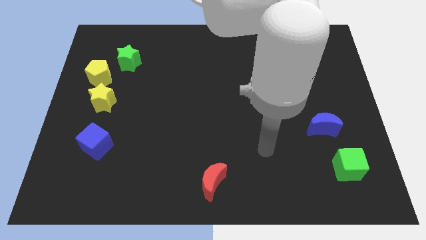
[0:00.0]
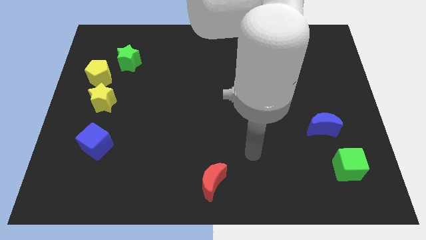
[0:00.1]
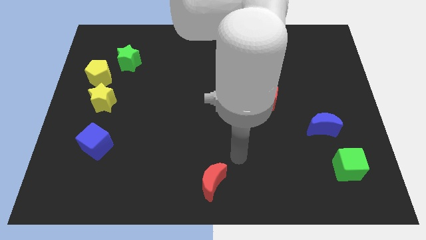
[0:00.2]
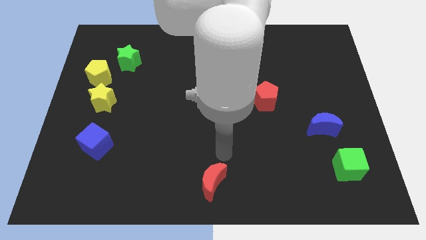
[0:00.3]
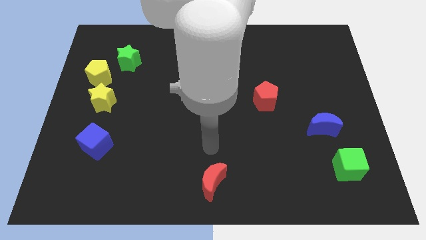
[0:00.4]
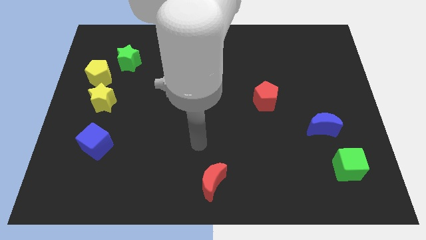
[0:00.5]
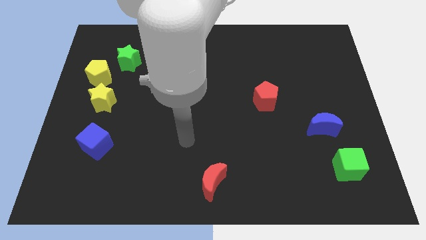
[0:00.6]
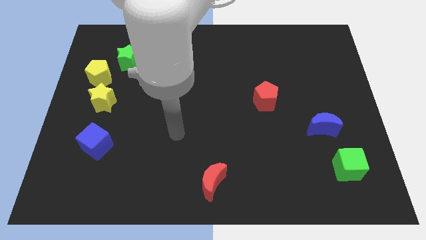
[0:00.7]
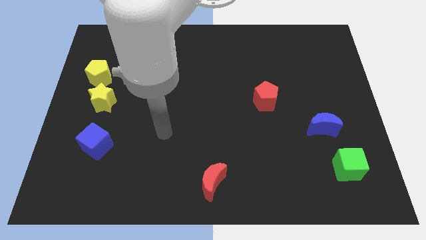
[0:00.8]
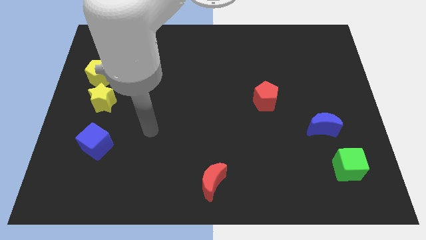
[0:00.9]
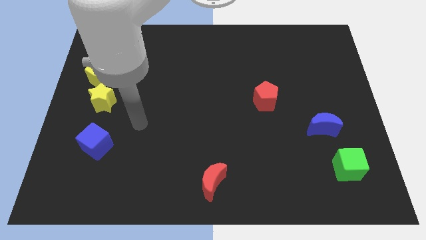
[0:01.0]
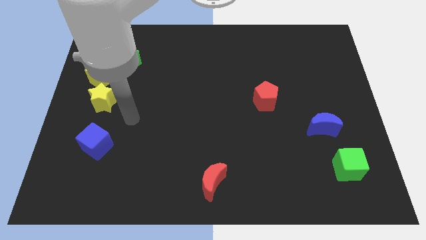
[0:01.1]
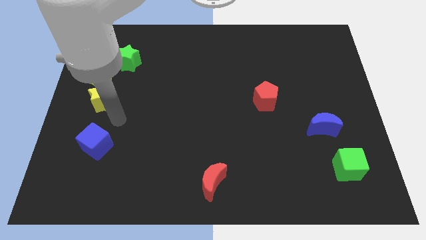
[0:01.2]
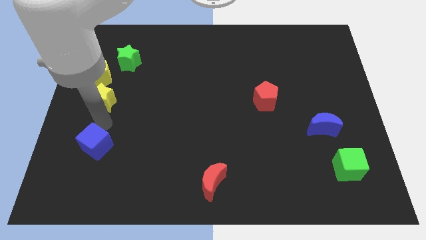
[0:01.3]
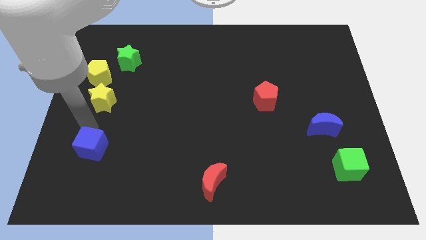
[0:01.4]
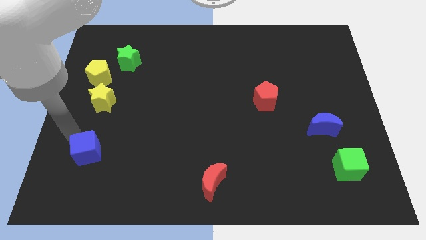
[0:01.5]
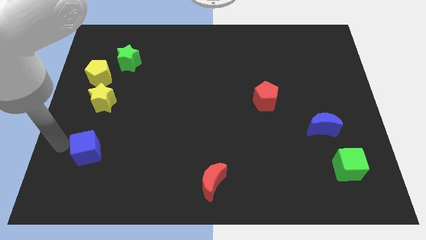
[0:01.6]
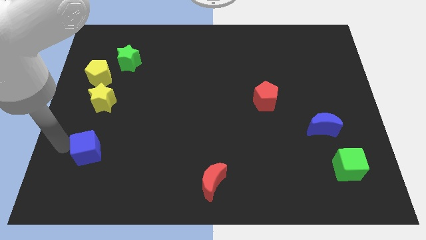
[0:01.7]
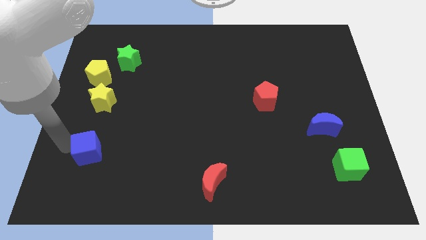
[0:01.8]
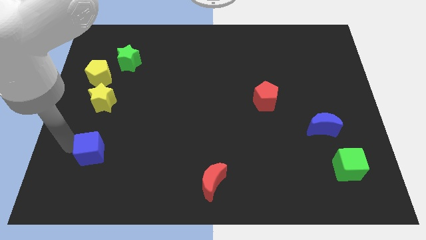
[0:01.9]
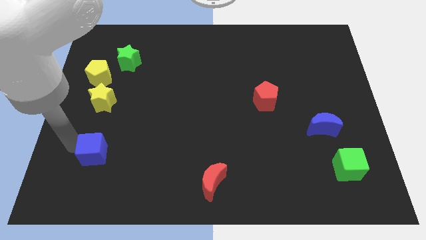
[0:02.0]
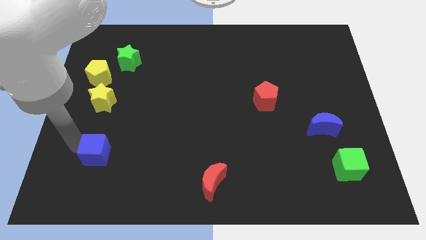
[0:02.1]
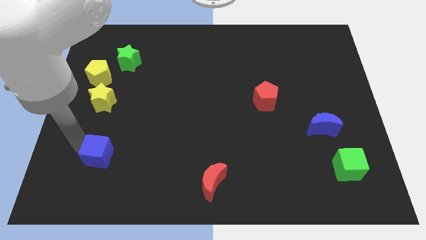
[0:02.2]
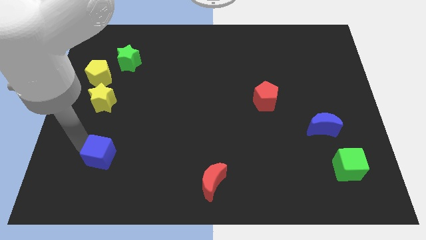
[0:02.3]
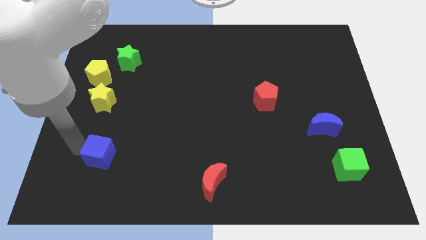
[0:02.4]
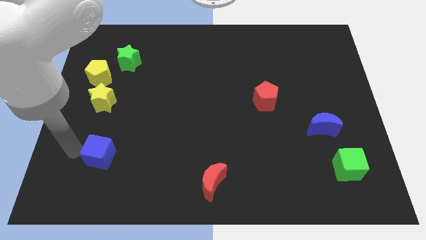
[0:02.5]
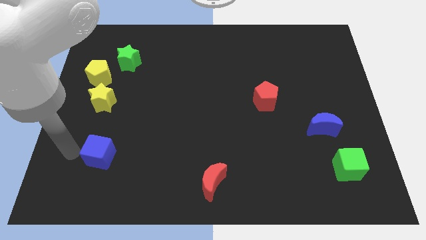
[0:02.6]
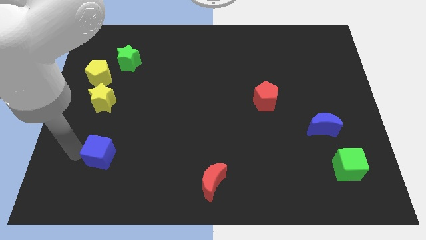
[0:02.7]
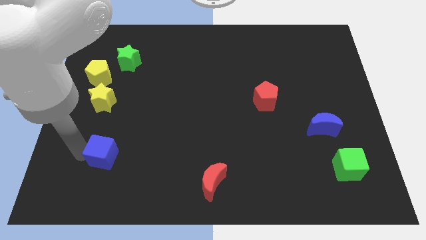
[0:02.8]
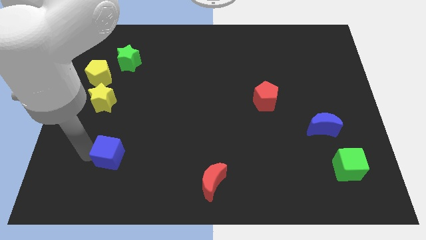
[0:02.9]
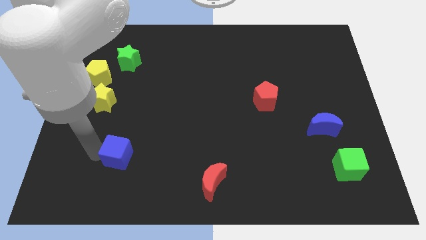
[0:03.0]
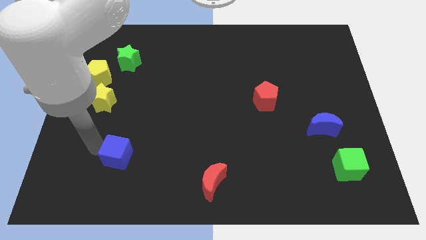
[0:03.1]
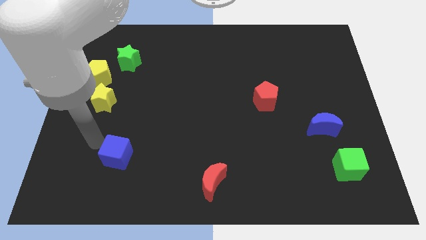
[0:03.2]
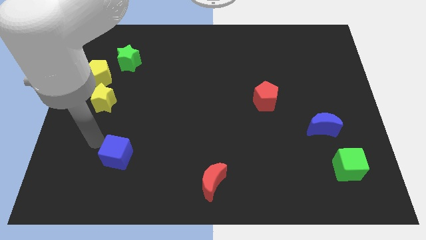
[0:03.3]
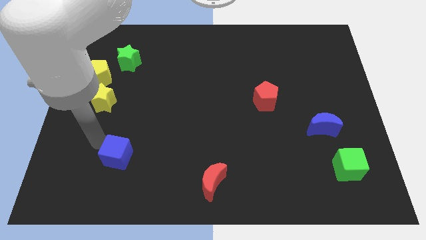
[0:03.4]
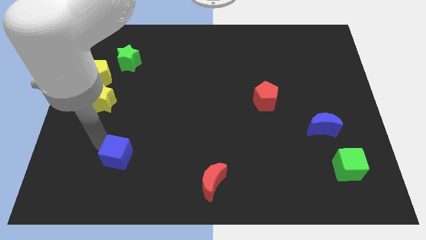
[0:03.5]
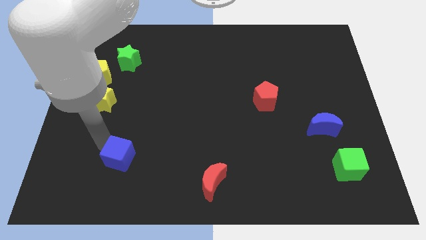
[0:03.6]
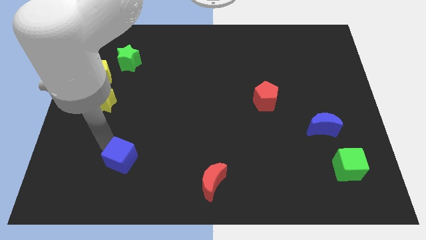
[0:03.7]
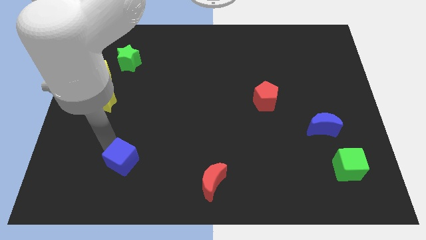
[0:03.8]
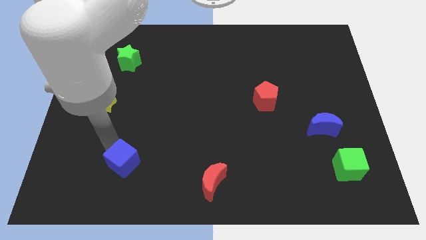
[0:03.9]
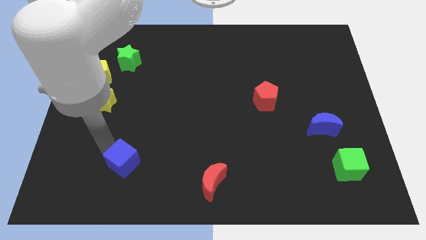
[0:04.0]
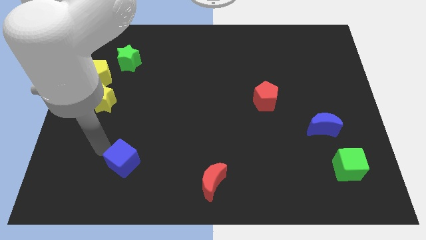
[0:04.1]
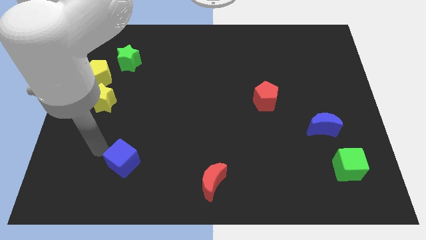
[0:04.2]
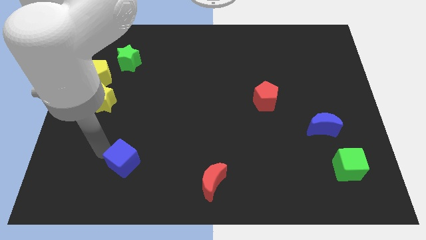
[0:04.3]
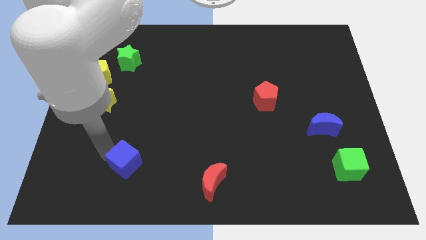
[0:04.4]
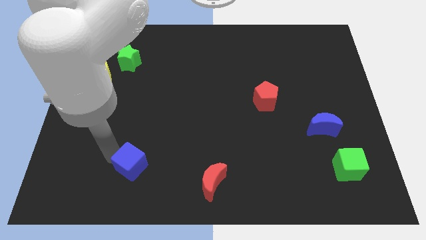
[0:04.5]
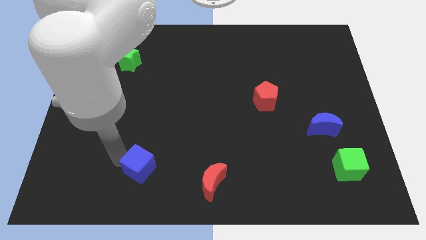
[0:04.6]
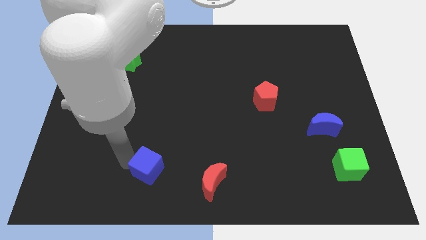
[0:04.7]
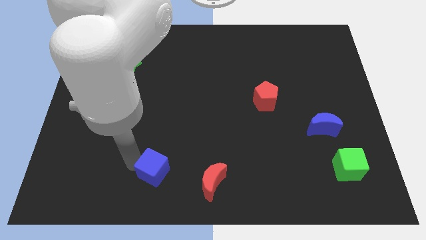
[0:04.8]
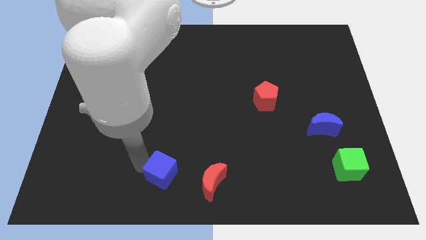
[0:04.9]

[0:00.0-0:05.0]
put the blue cube to the bottom

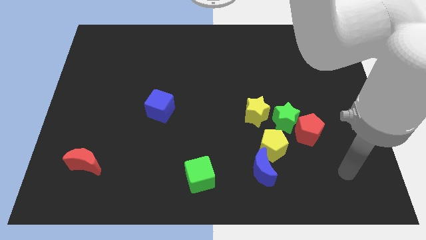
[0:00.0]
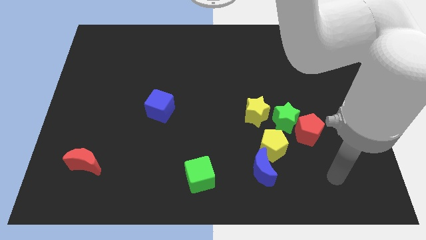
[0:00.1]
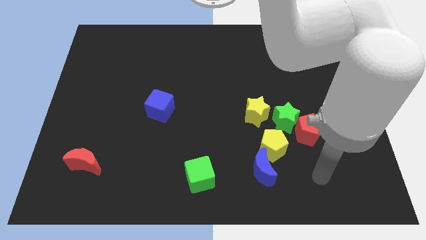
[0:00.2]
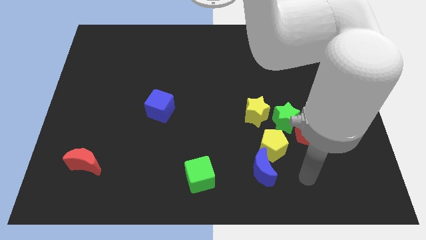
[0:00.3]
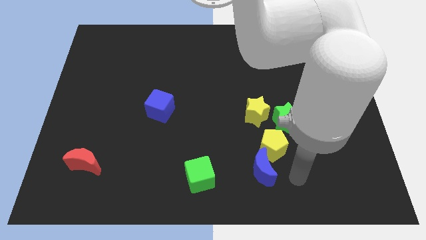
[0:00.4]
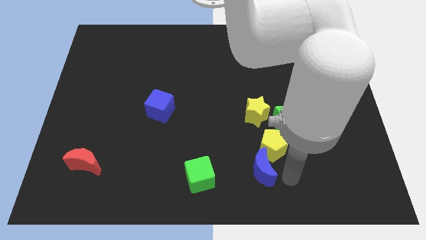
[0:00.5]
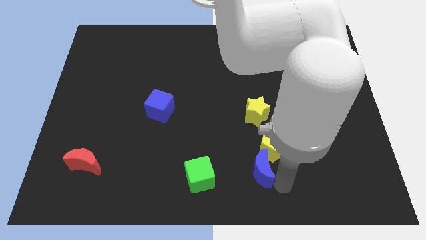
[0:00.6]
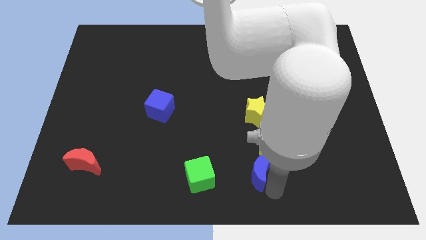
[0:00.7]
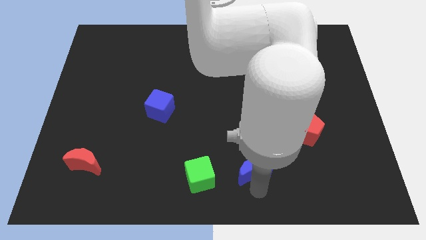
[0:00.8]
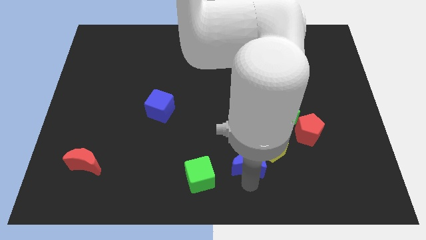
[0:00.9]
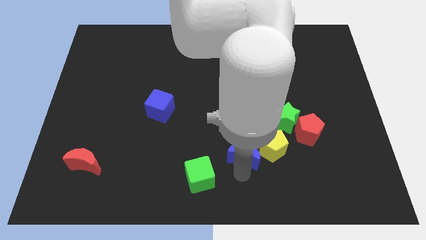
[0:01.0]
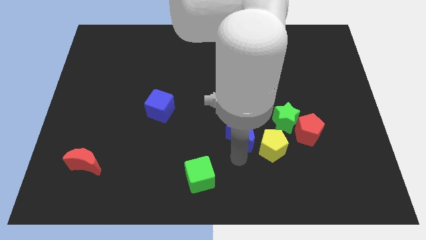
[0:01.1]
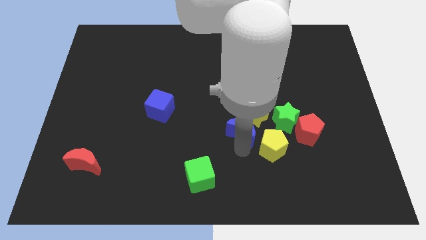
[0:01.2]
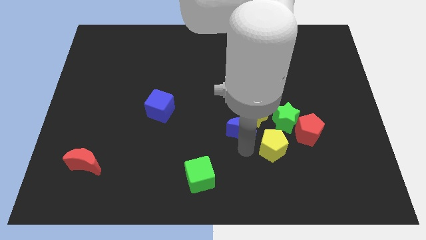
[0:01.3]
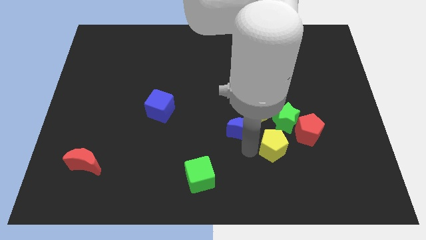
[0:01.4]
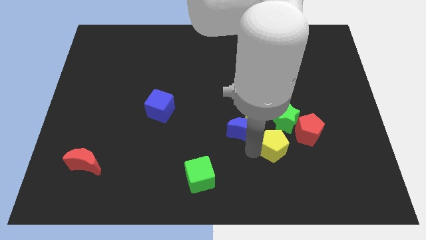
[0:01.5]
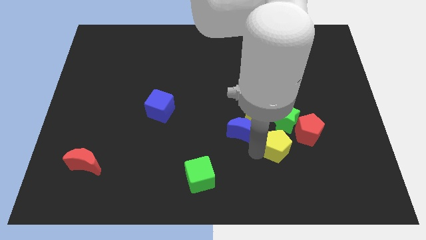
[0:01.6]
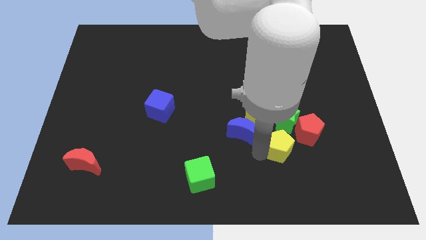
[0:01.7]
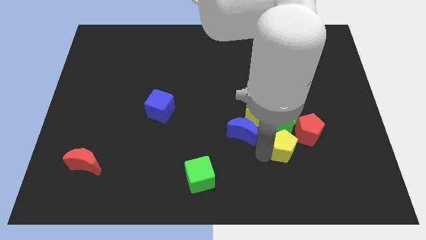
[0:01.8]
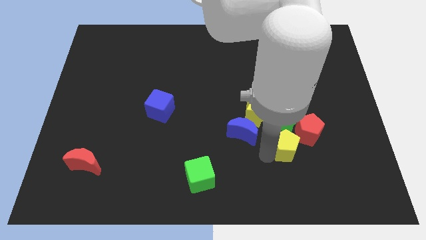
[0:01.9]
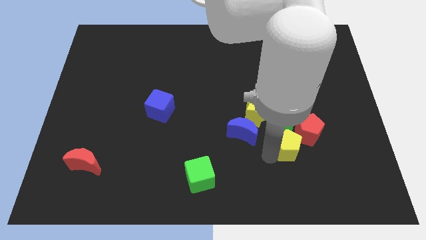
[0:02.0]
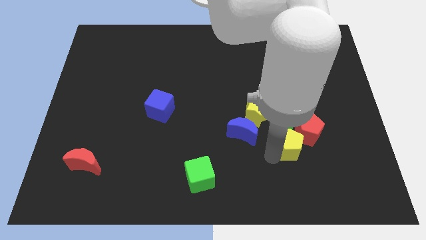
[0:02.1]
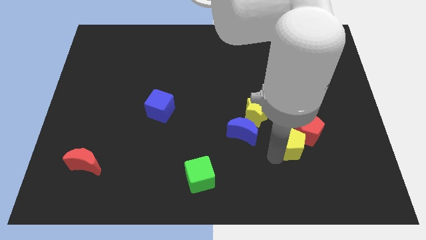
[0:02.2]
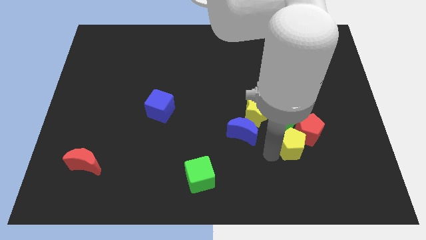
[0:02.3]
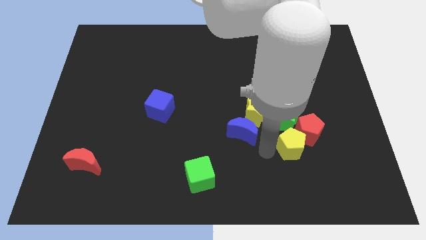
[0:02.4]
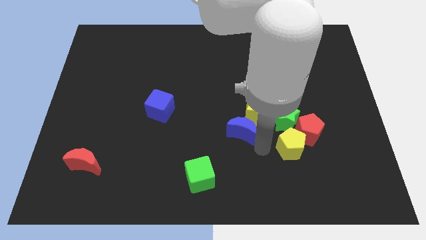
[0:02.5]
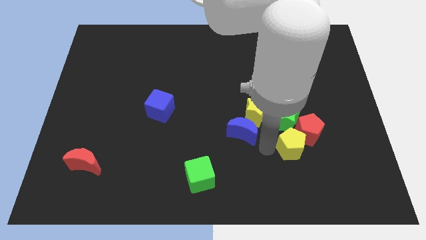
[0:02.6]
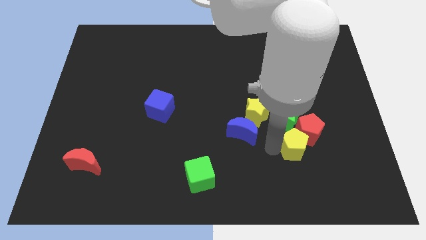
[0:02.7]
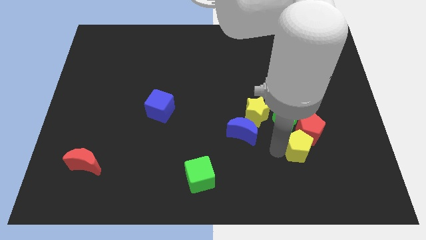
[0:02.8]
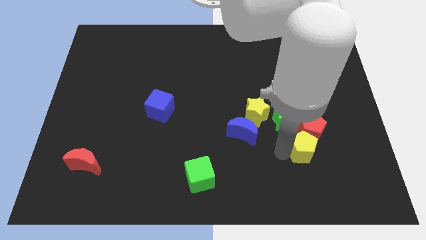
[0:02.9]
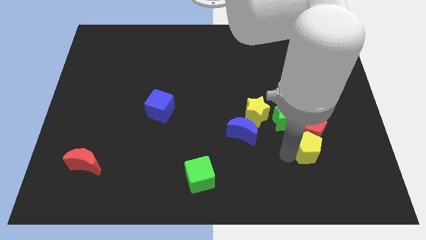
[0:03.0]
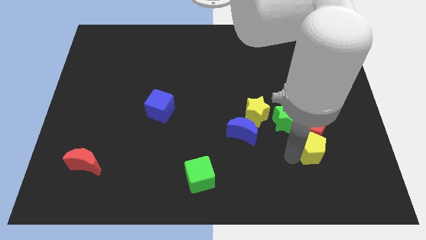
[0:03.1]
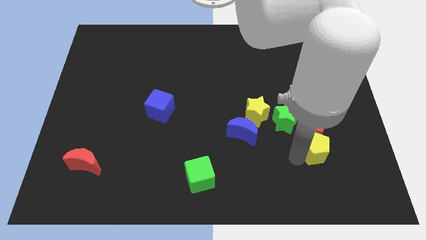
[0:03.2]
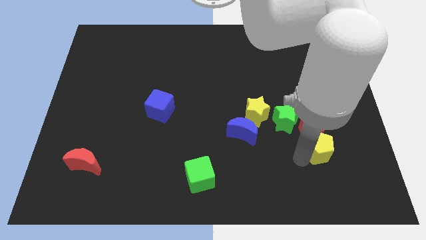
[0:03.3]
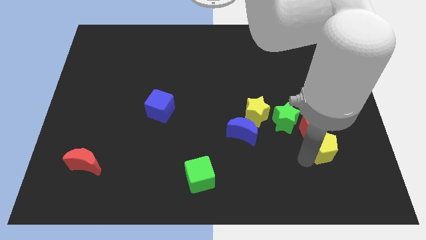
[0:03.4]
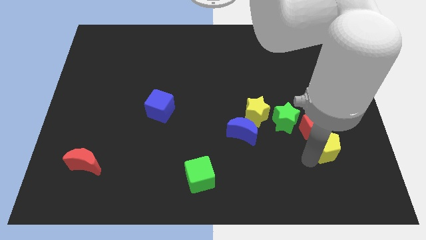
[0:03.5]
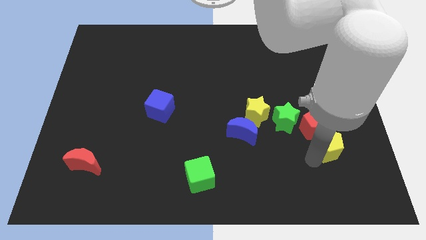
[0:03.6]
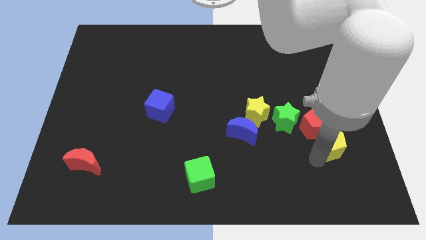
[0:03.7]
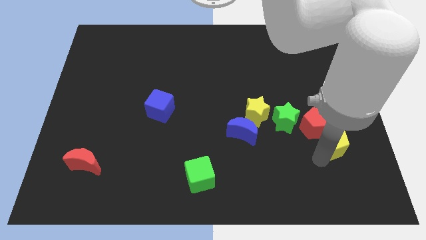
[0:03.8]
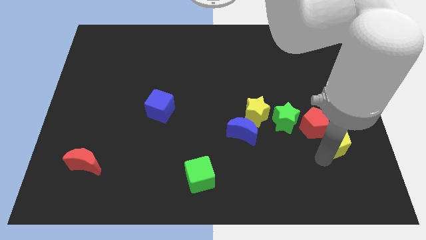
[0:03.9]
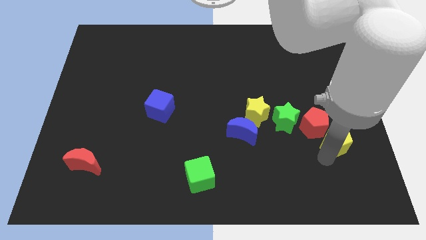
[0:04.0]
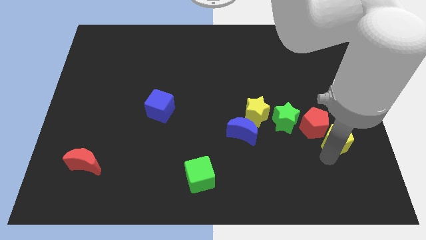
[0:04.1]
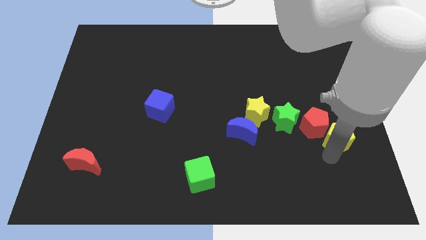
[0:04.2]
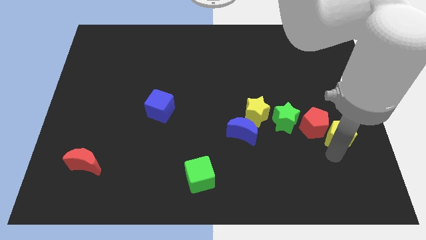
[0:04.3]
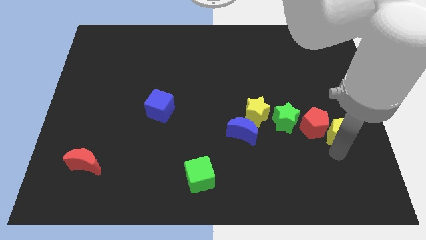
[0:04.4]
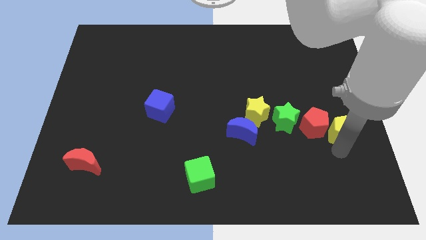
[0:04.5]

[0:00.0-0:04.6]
slide the yellow pentagon to the center right
